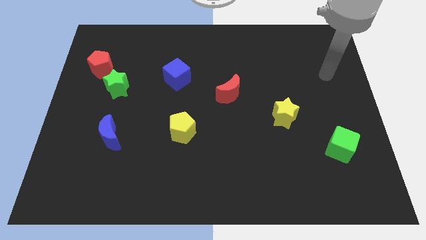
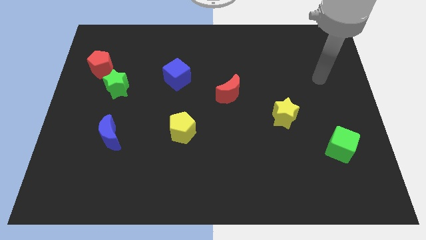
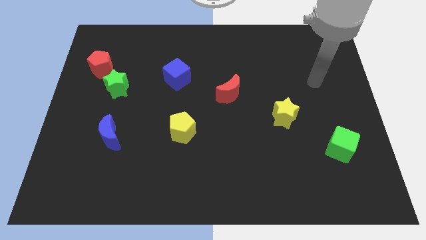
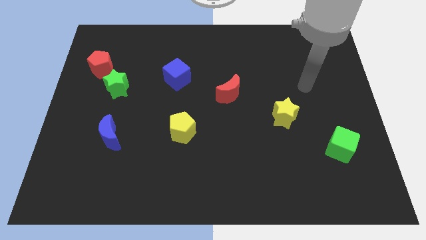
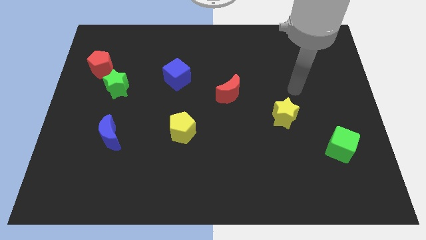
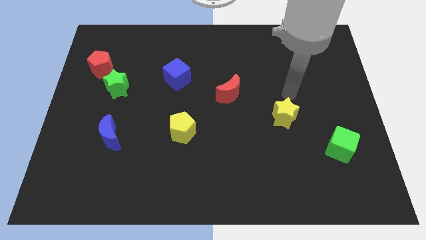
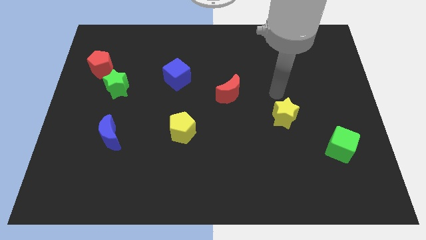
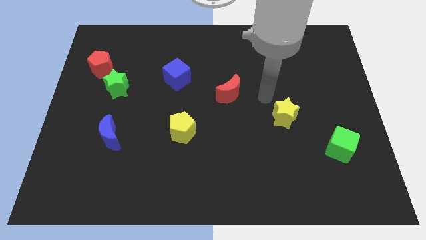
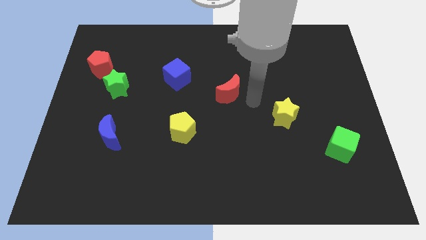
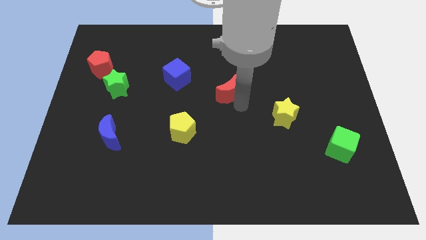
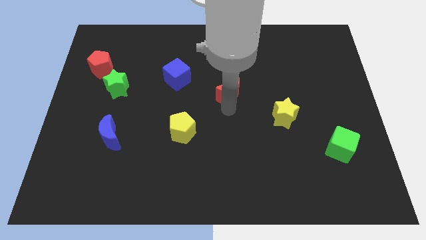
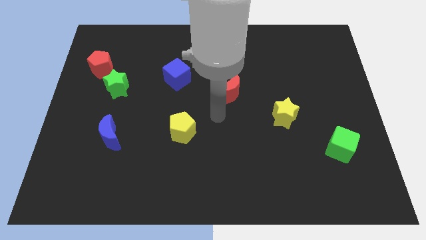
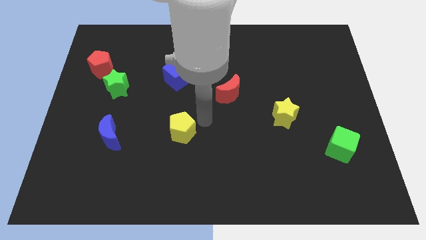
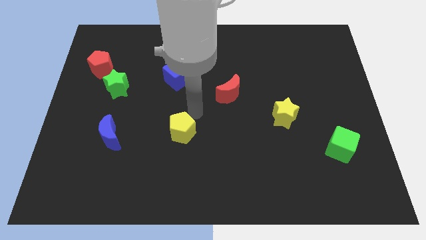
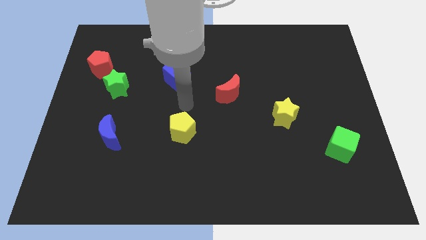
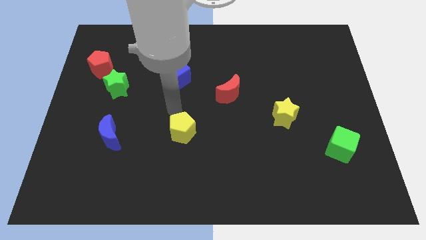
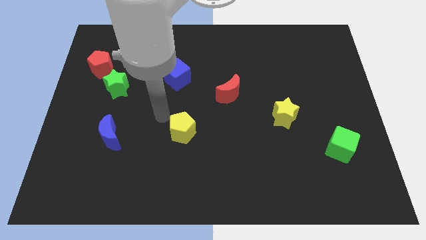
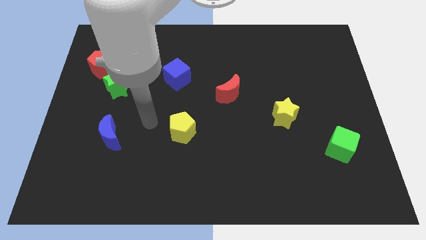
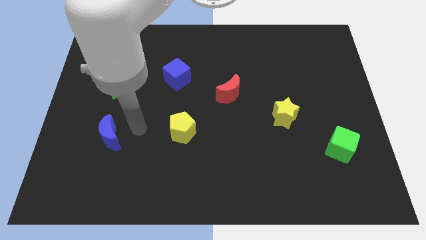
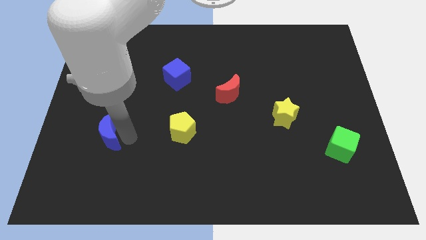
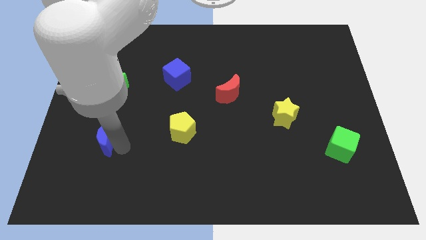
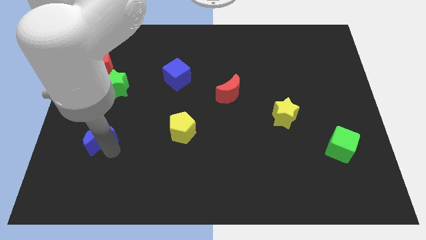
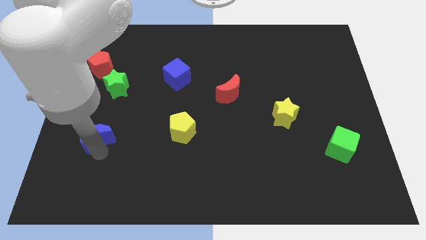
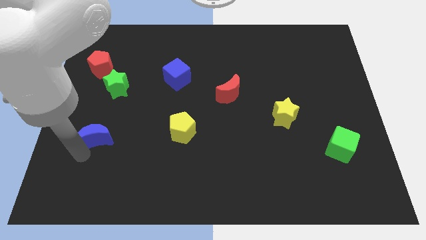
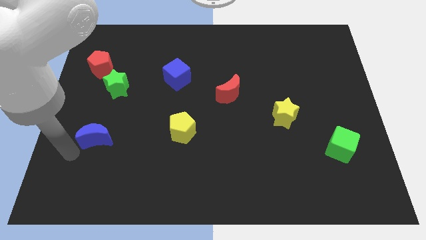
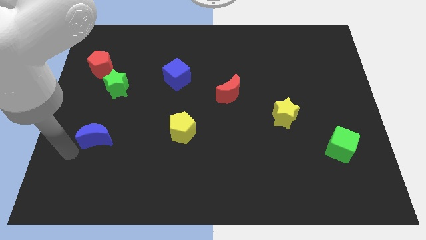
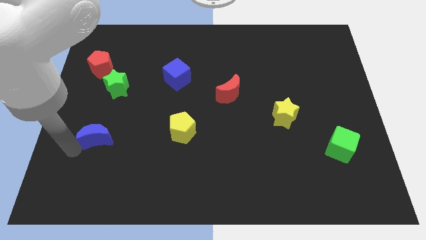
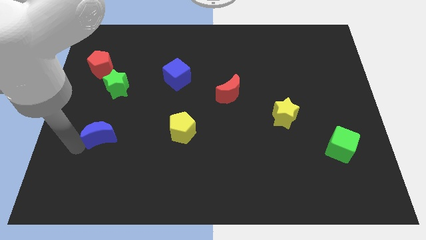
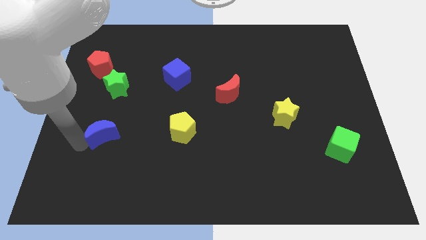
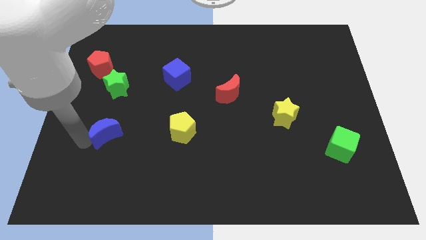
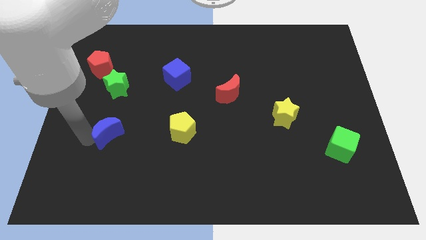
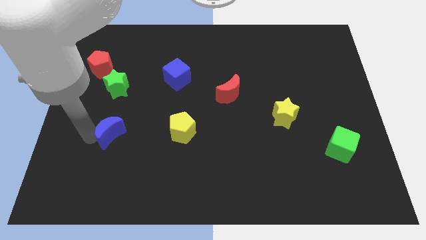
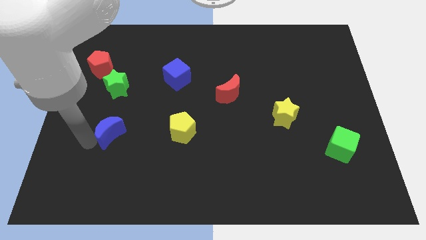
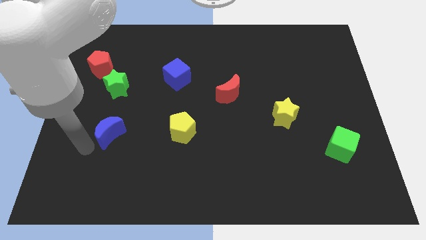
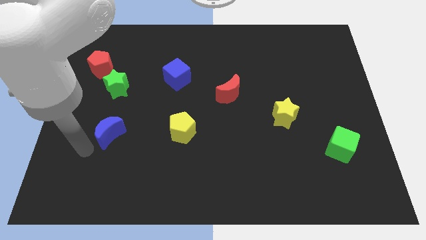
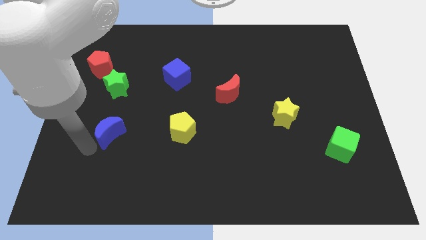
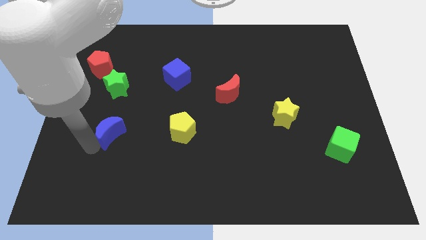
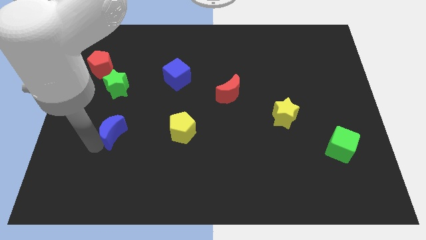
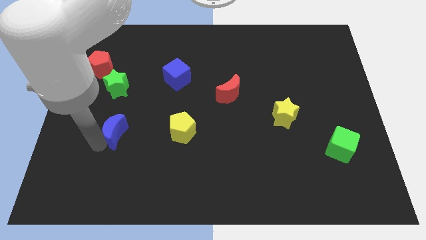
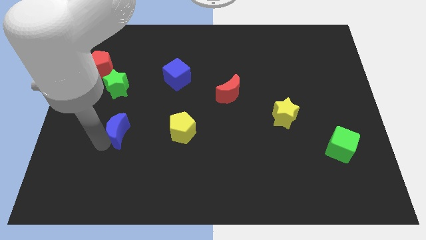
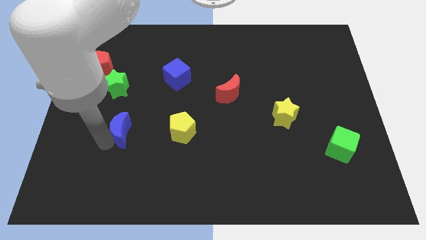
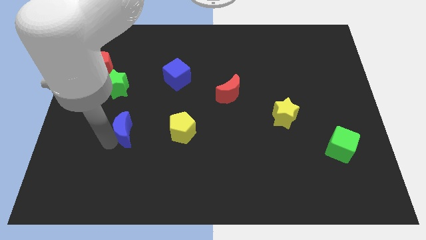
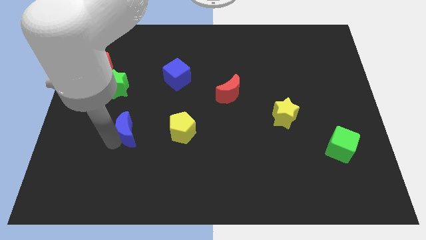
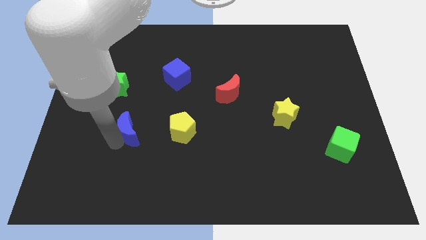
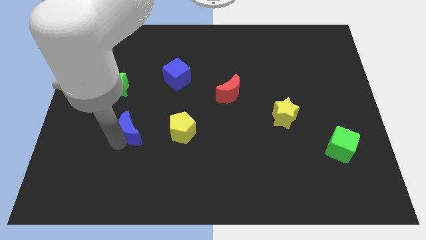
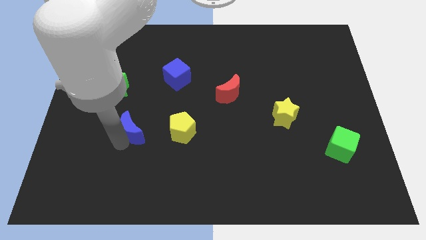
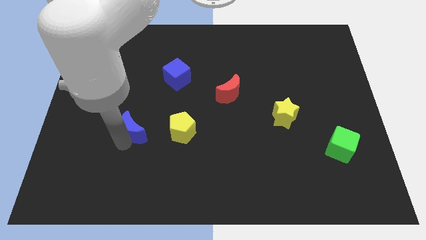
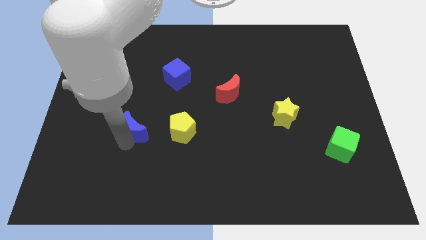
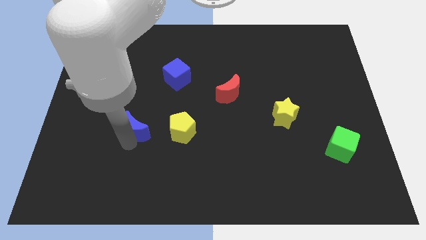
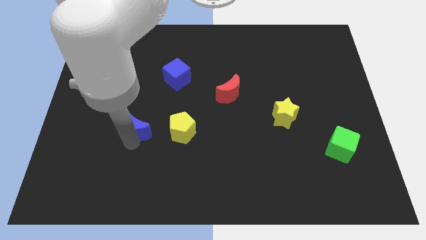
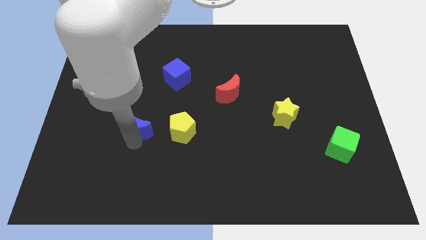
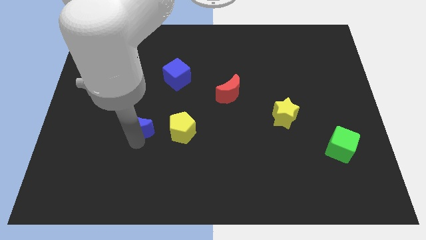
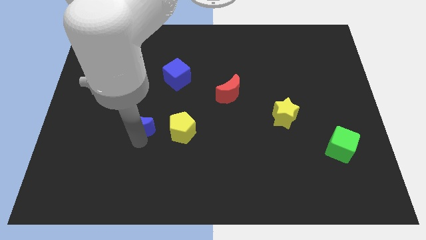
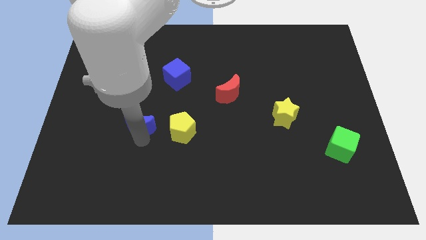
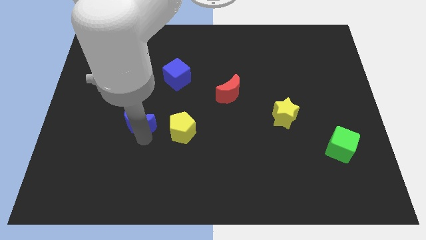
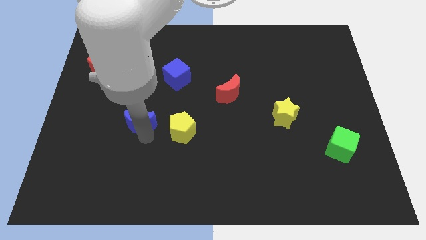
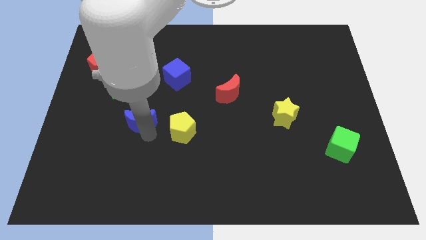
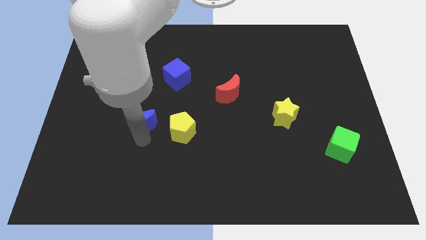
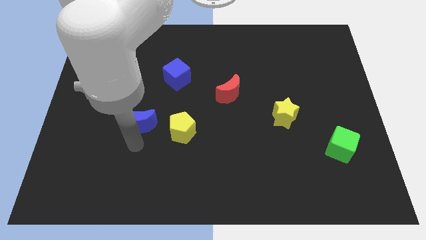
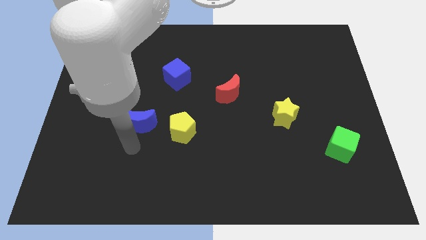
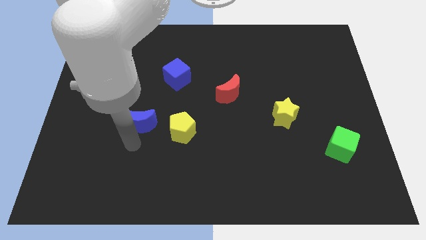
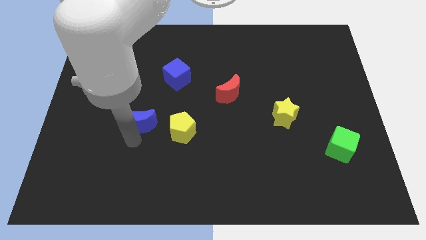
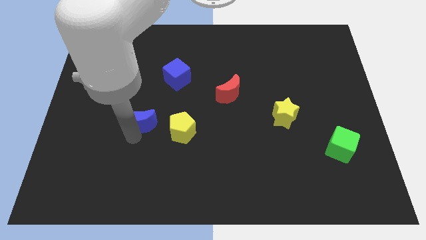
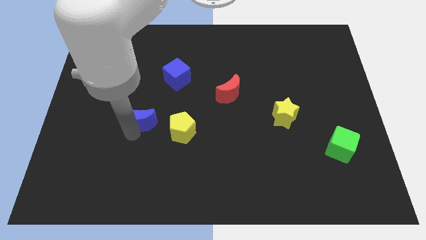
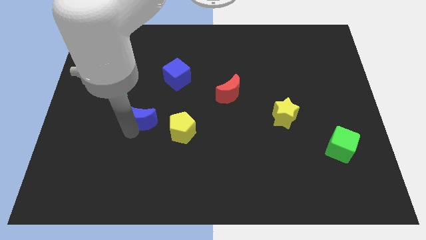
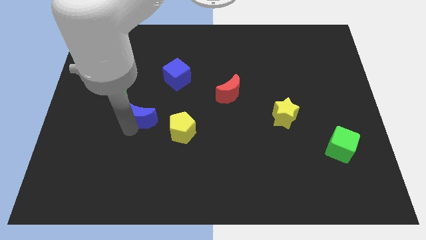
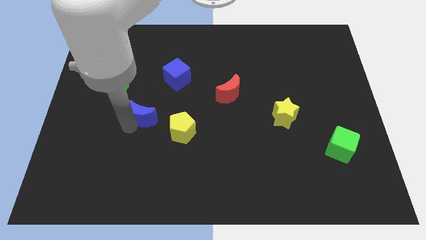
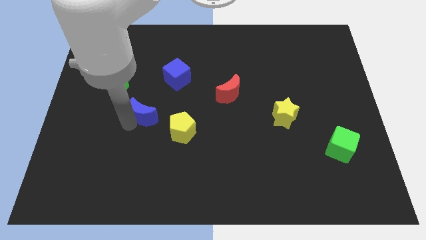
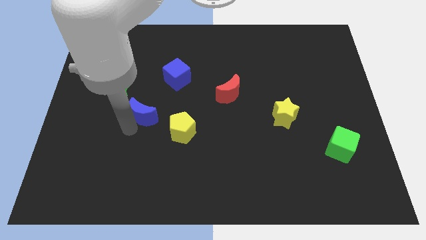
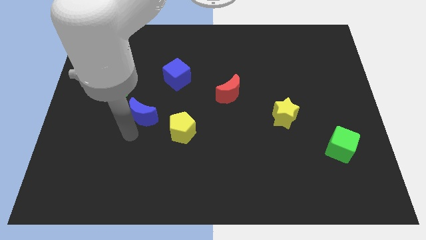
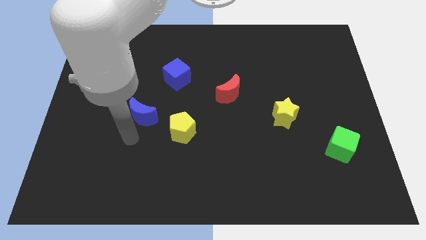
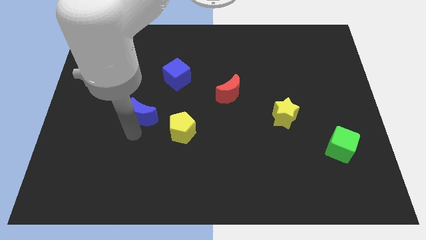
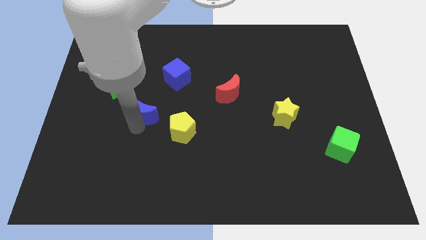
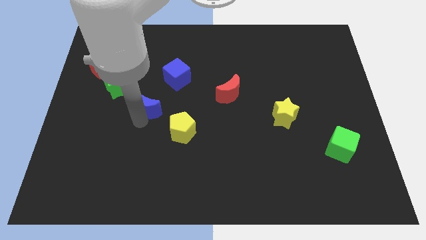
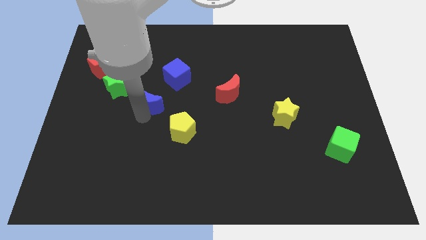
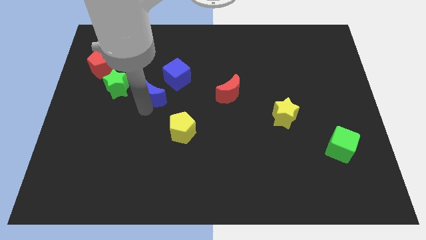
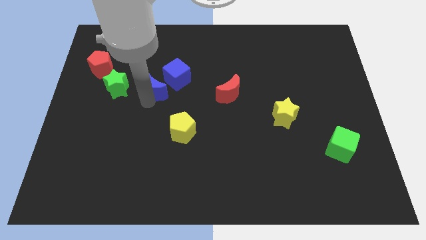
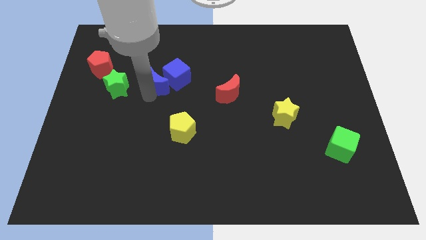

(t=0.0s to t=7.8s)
push the blue moon close to the blue cube
